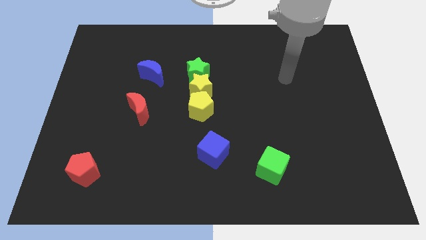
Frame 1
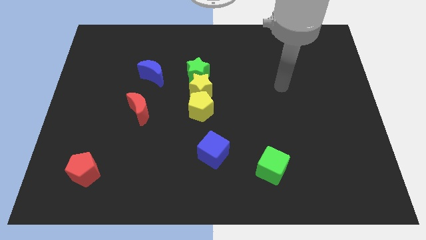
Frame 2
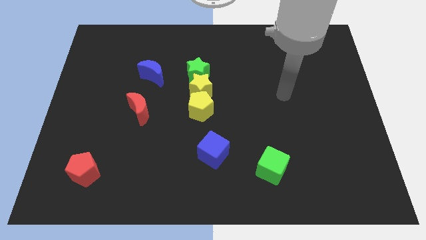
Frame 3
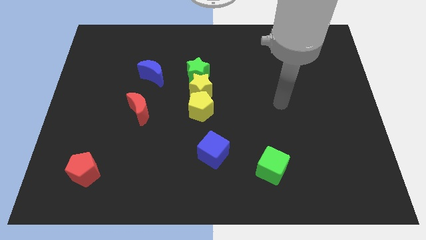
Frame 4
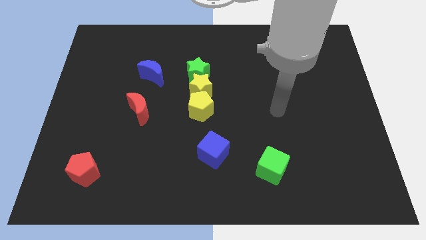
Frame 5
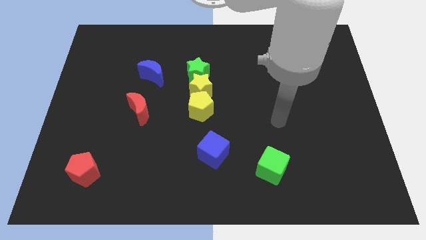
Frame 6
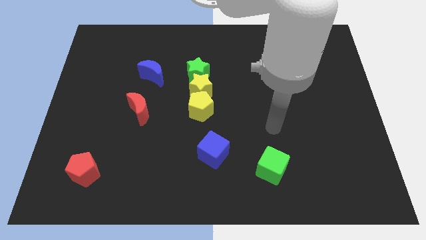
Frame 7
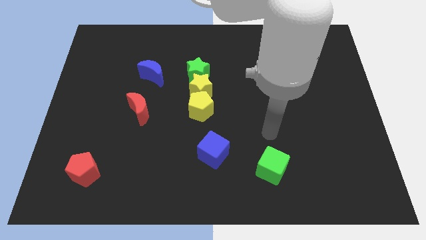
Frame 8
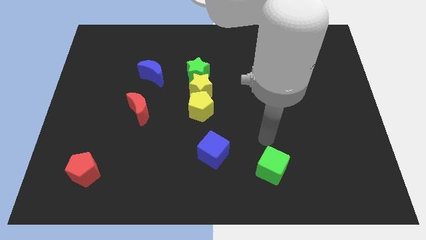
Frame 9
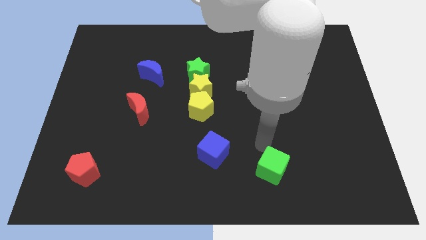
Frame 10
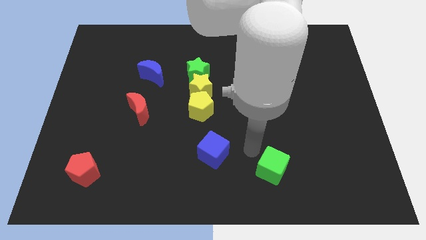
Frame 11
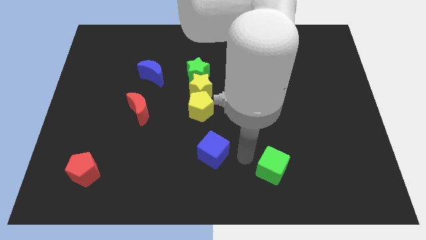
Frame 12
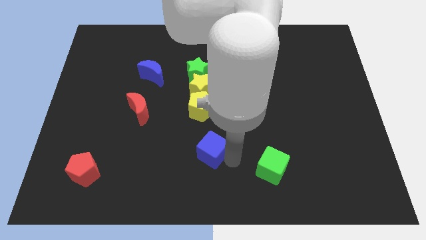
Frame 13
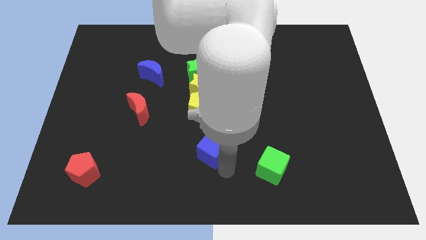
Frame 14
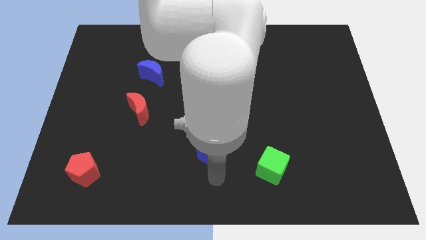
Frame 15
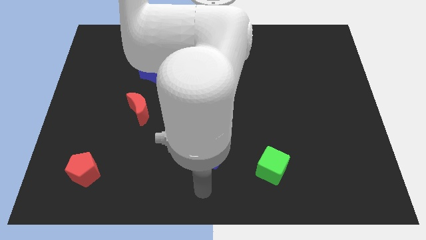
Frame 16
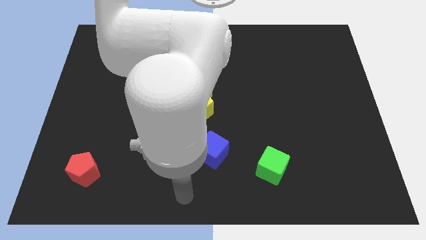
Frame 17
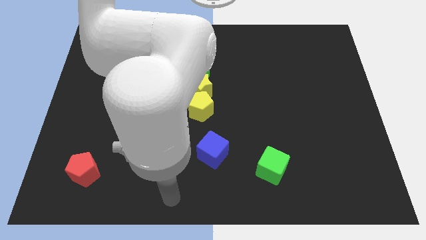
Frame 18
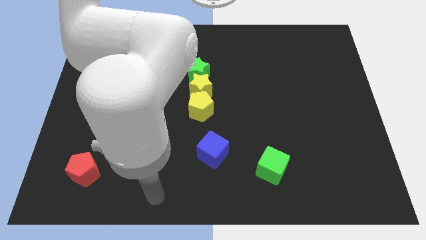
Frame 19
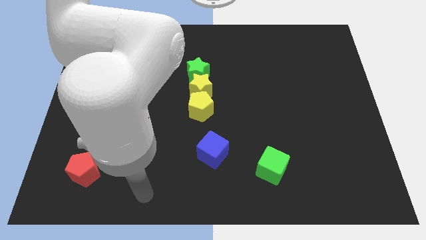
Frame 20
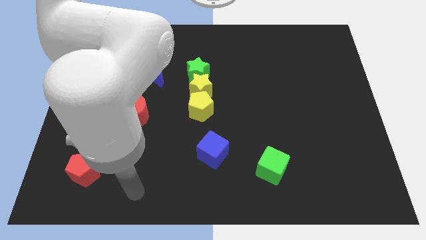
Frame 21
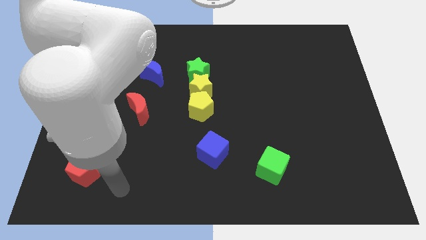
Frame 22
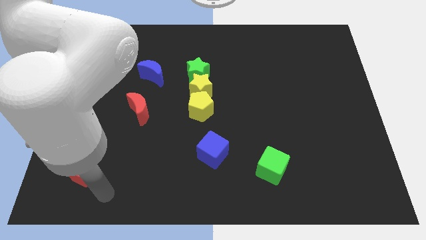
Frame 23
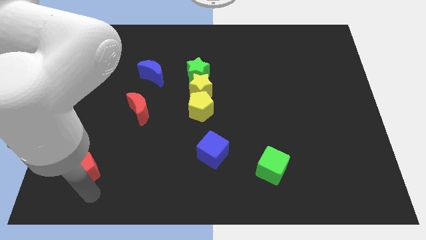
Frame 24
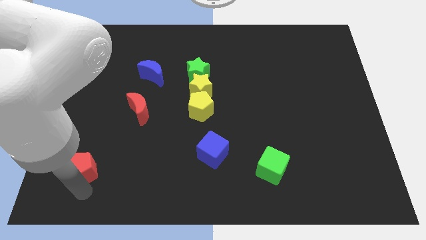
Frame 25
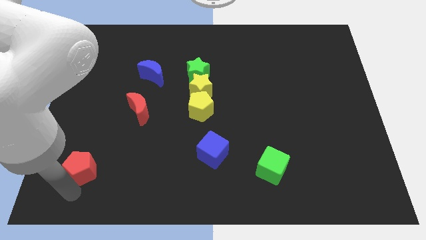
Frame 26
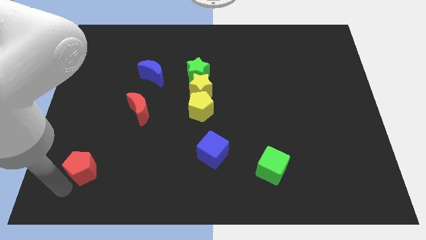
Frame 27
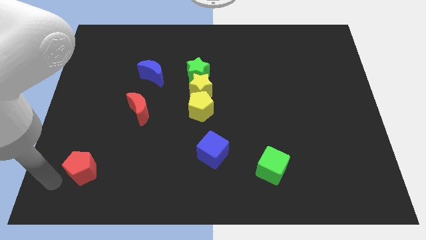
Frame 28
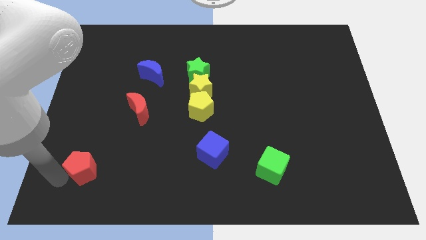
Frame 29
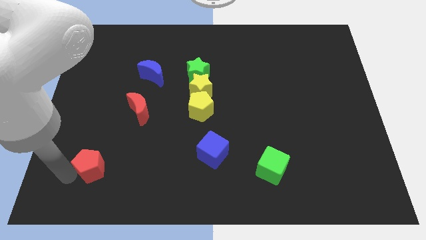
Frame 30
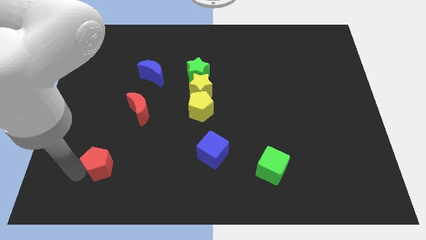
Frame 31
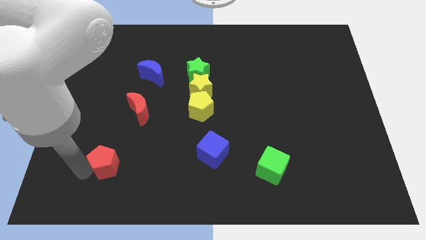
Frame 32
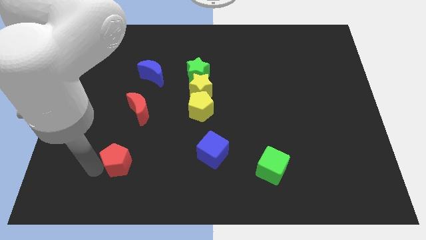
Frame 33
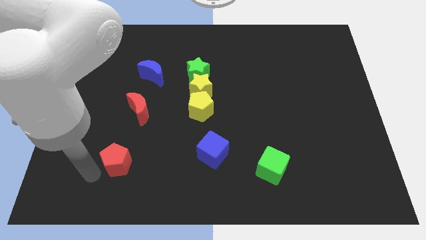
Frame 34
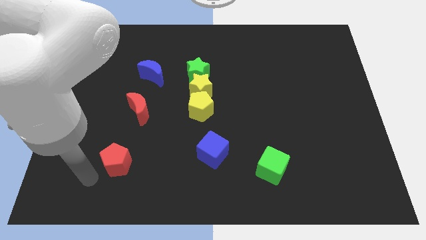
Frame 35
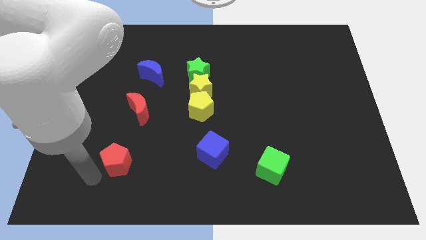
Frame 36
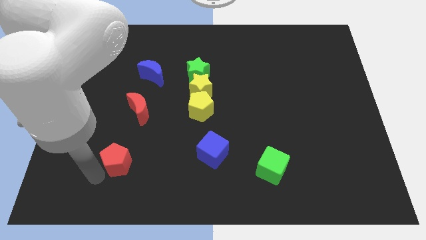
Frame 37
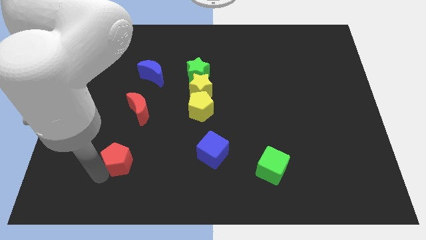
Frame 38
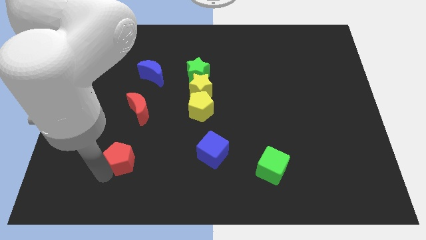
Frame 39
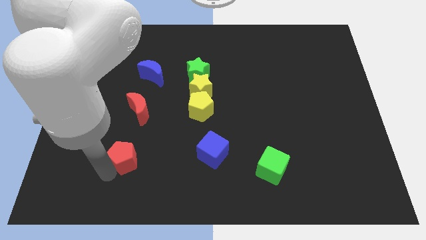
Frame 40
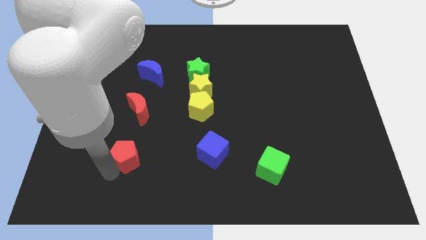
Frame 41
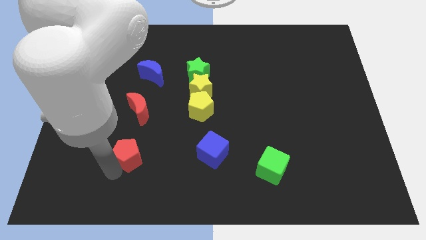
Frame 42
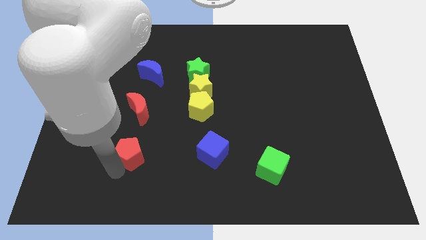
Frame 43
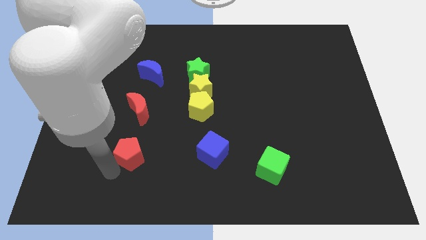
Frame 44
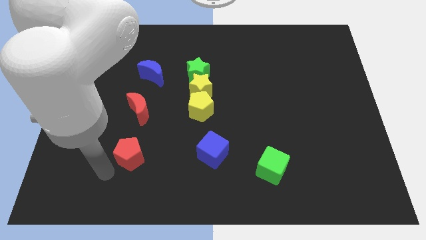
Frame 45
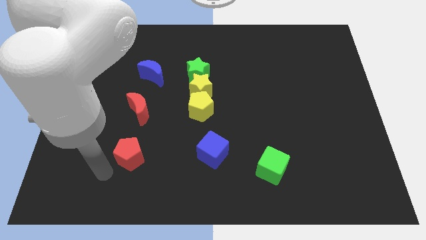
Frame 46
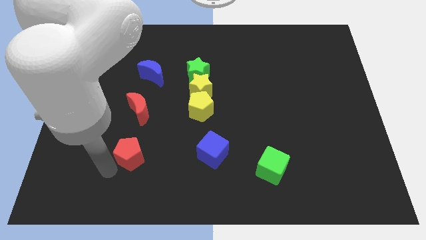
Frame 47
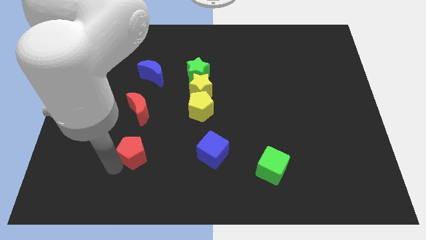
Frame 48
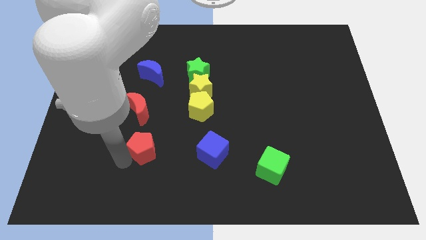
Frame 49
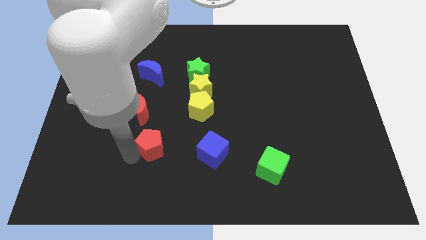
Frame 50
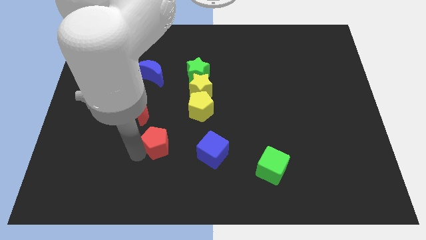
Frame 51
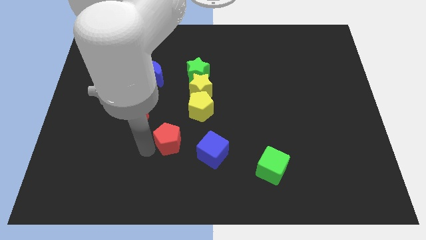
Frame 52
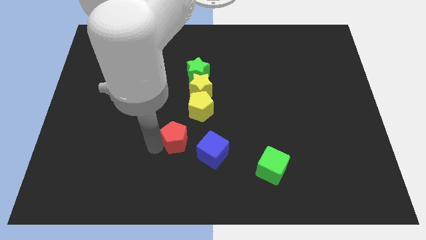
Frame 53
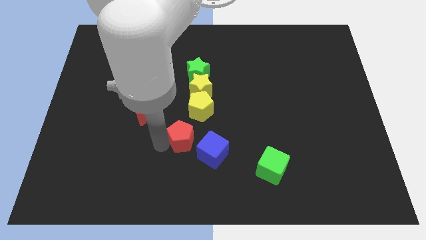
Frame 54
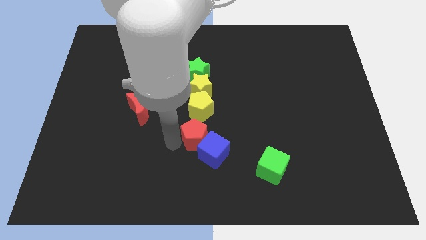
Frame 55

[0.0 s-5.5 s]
slide the red pentagon to the center

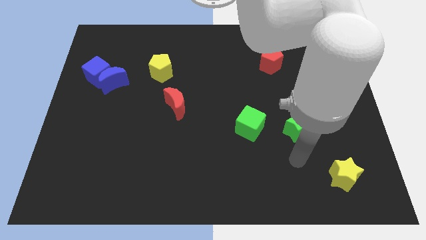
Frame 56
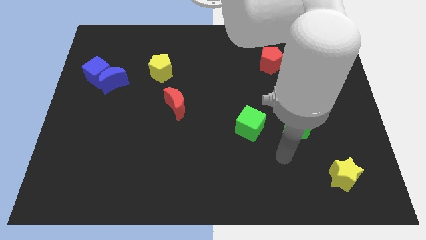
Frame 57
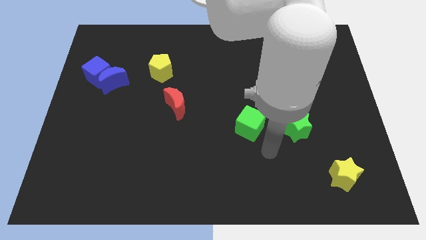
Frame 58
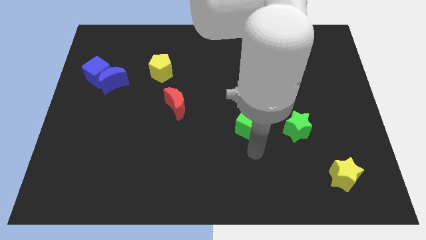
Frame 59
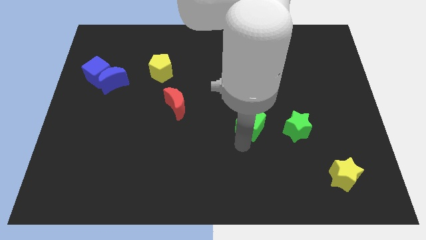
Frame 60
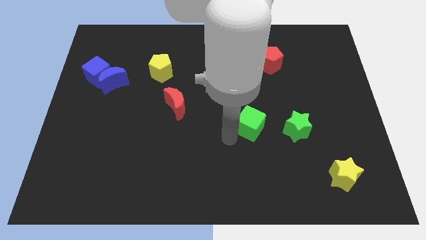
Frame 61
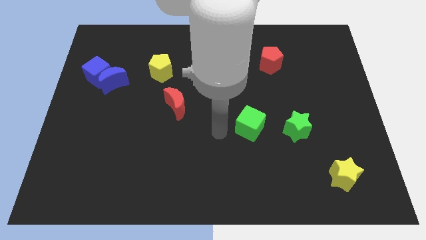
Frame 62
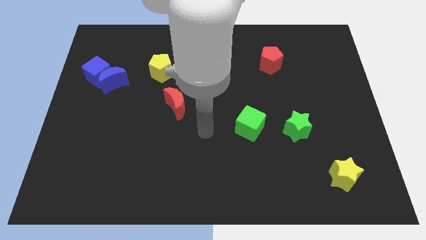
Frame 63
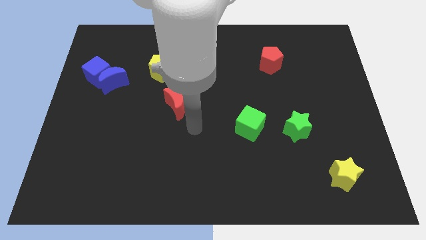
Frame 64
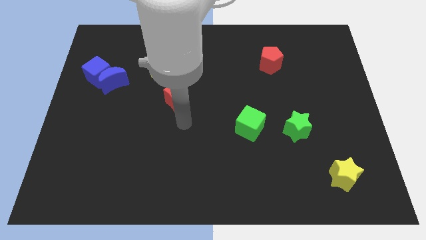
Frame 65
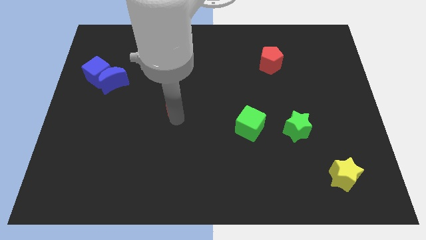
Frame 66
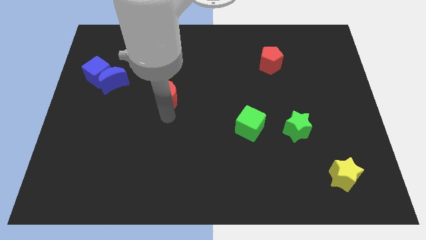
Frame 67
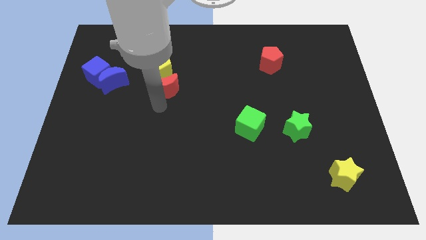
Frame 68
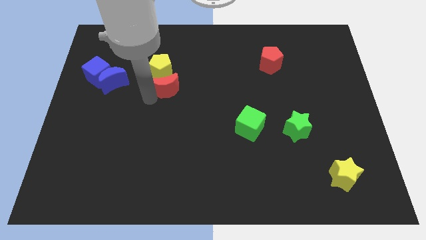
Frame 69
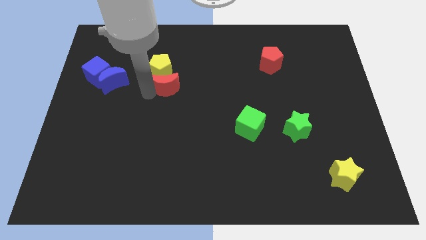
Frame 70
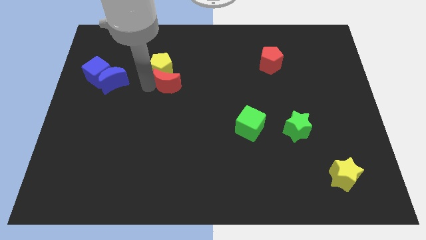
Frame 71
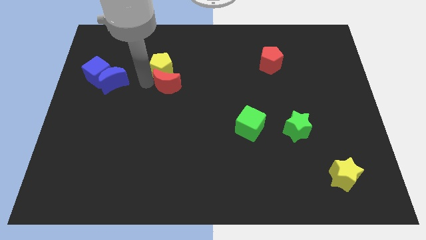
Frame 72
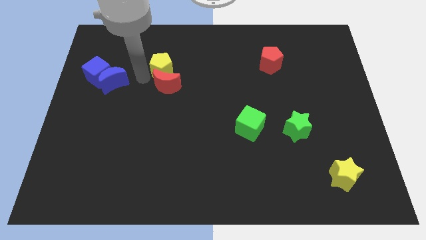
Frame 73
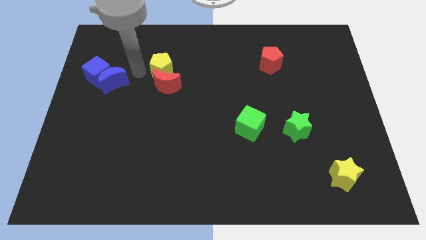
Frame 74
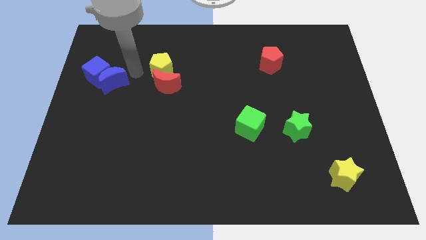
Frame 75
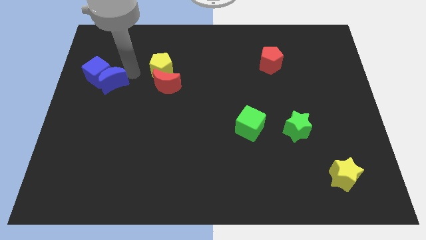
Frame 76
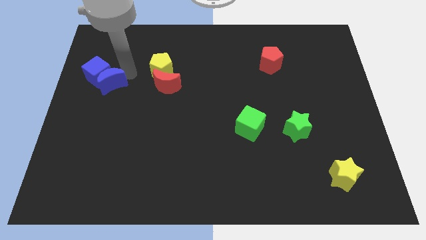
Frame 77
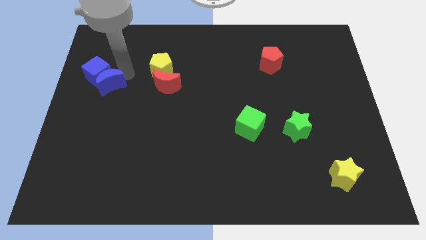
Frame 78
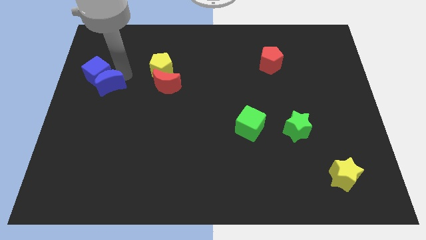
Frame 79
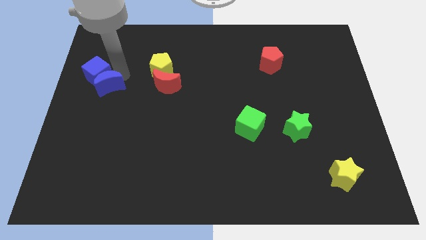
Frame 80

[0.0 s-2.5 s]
put the blue moon to the left side of the board

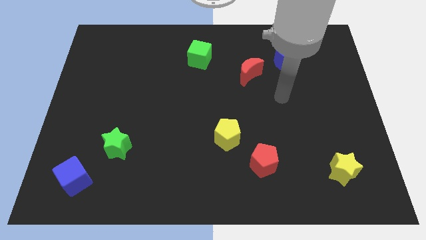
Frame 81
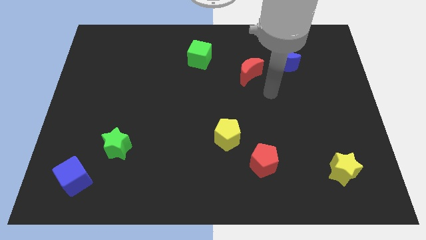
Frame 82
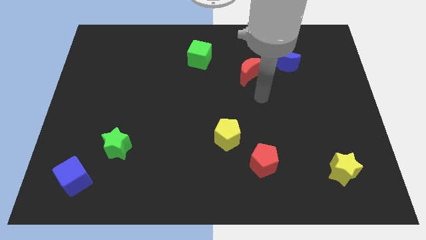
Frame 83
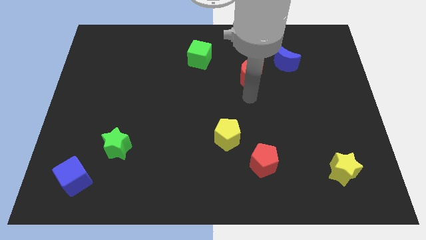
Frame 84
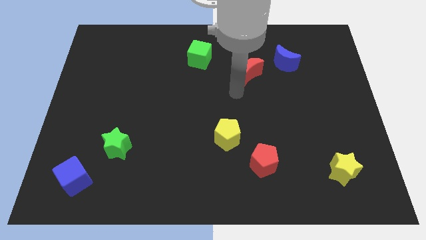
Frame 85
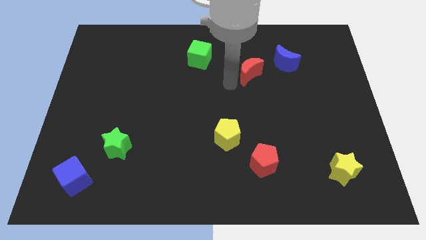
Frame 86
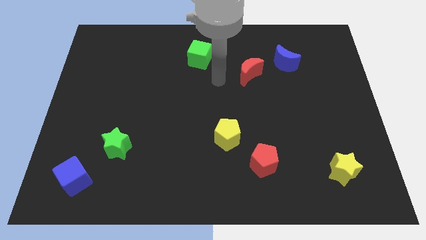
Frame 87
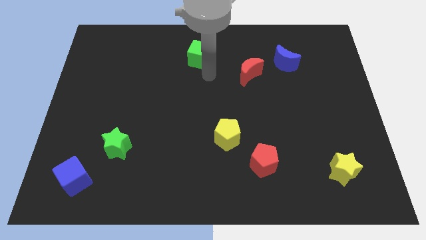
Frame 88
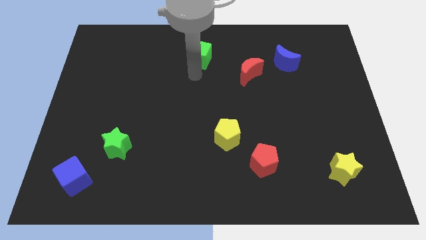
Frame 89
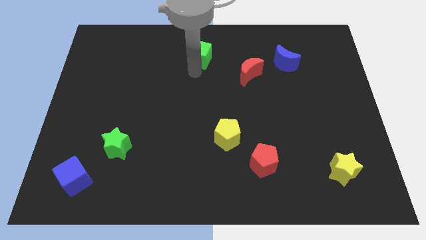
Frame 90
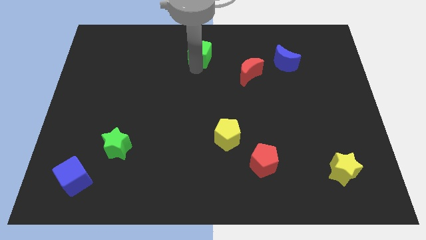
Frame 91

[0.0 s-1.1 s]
push the green cube to the top
